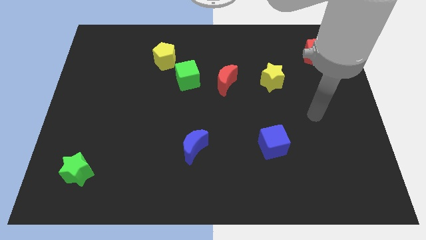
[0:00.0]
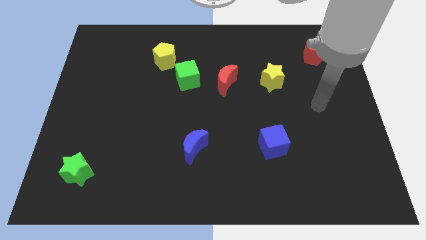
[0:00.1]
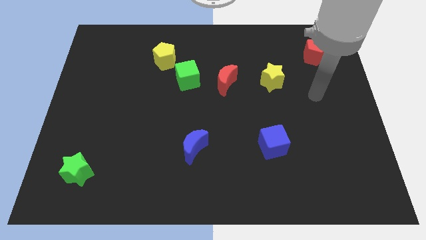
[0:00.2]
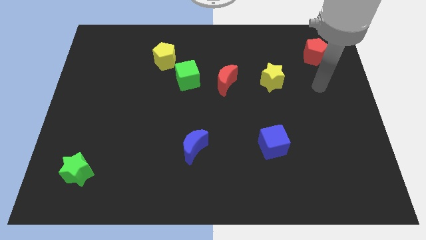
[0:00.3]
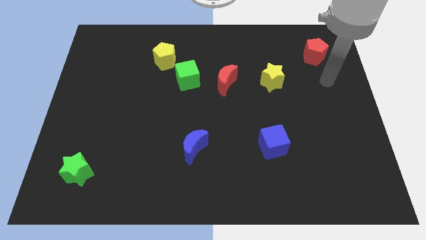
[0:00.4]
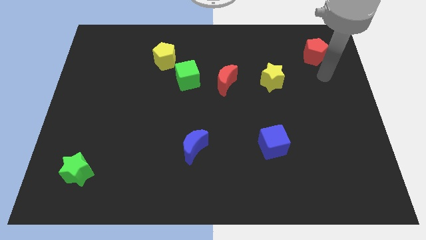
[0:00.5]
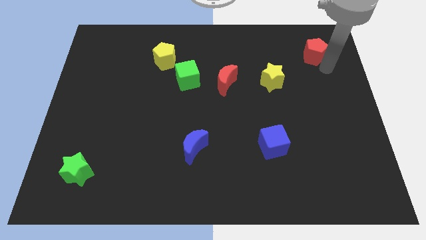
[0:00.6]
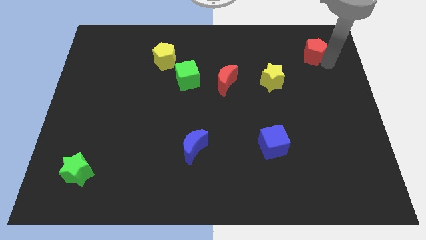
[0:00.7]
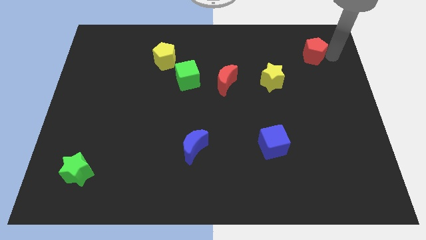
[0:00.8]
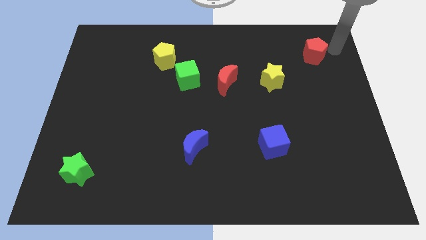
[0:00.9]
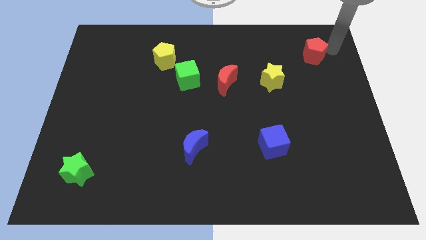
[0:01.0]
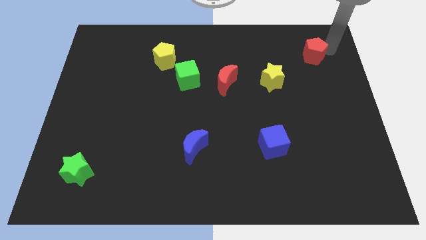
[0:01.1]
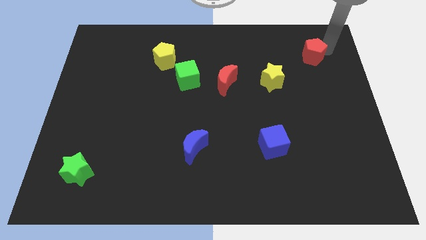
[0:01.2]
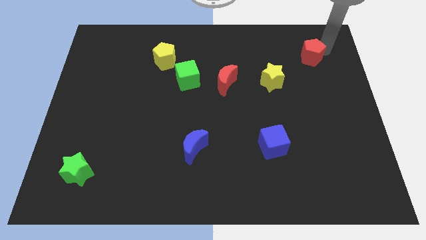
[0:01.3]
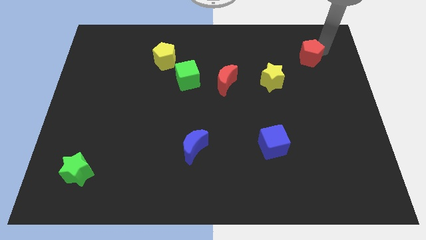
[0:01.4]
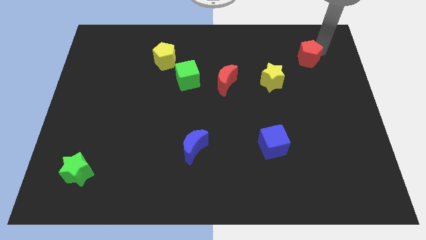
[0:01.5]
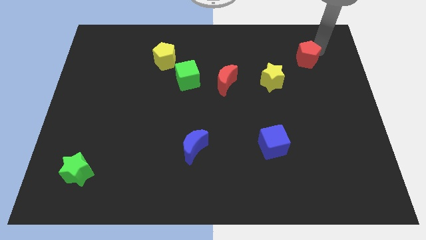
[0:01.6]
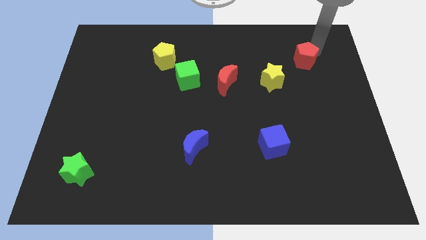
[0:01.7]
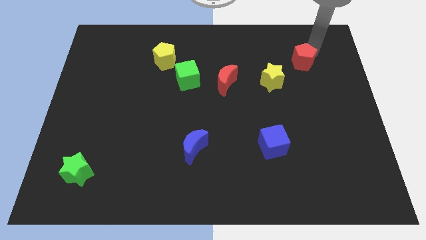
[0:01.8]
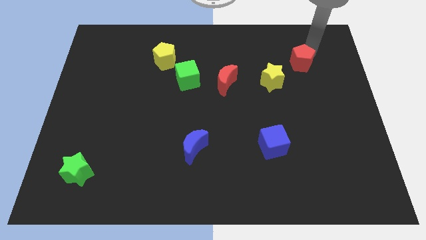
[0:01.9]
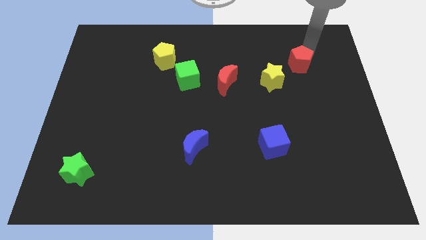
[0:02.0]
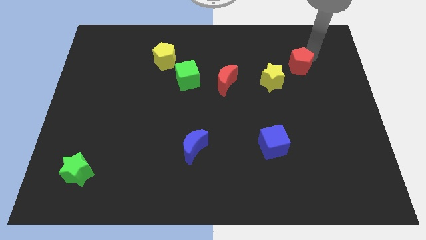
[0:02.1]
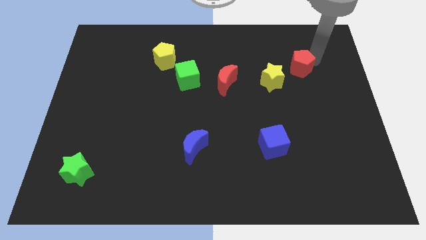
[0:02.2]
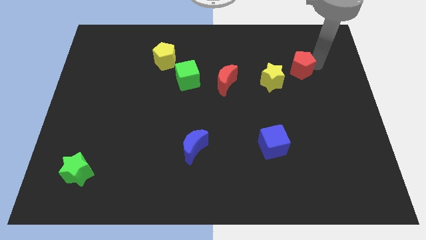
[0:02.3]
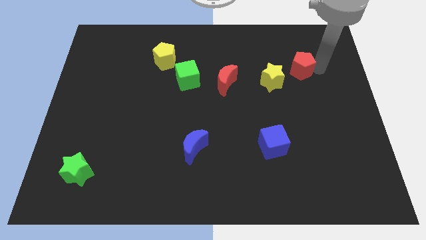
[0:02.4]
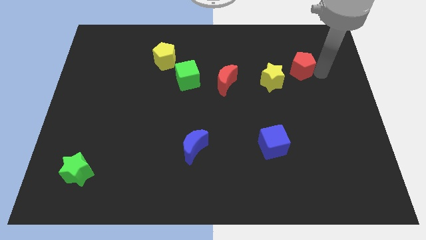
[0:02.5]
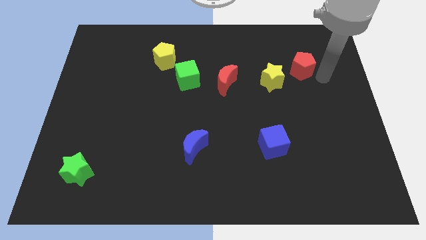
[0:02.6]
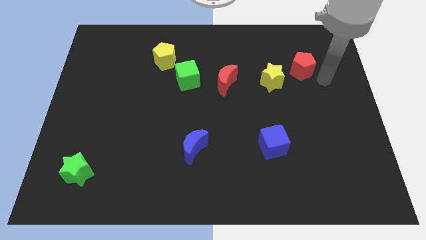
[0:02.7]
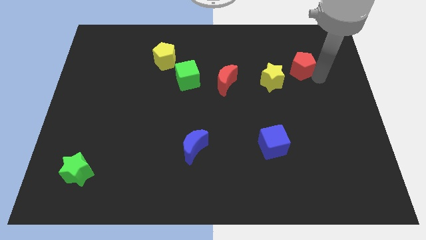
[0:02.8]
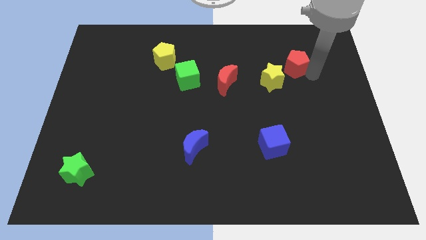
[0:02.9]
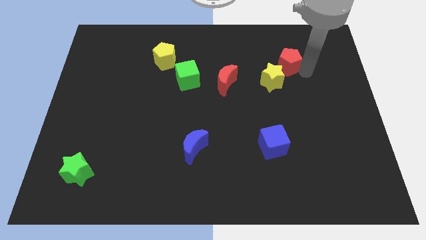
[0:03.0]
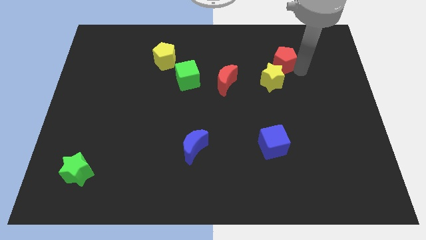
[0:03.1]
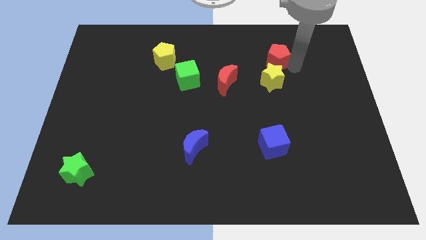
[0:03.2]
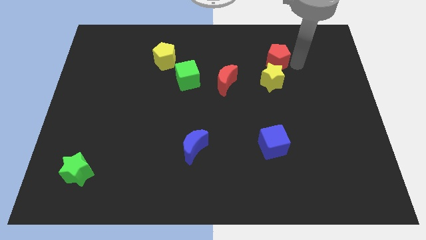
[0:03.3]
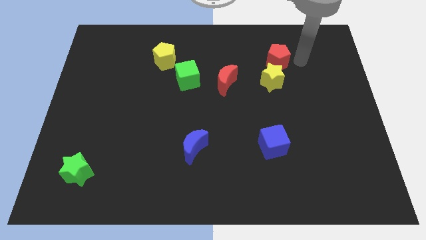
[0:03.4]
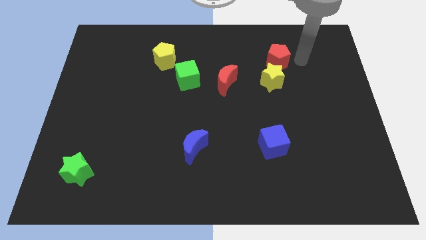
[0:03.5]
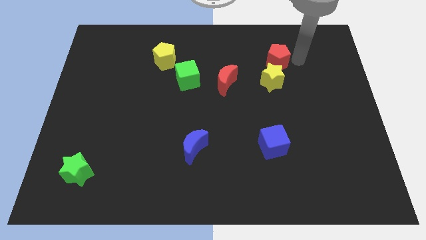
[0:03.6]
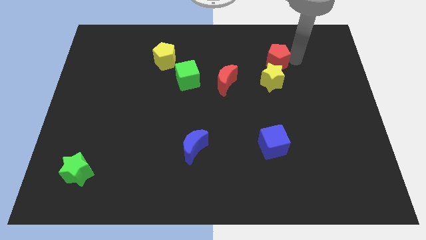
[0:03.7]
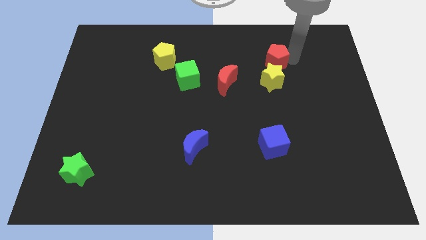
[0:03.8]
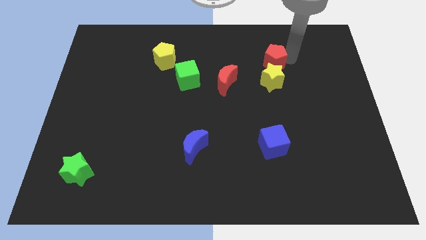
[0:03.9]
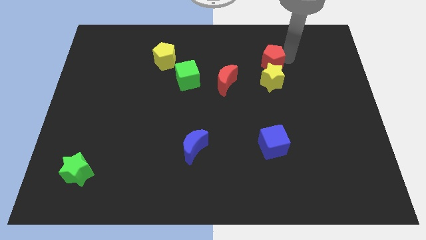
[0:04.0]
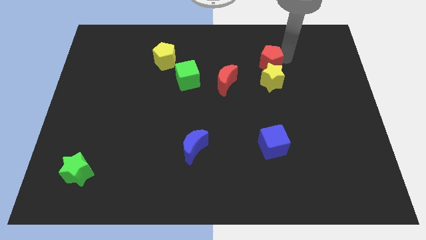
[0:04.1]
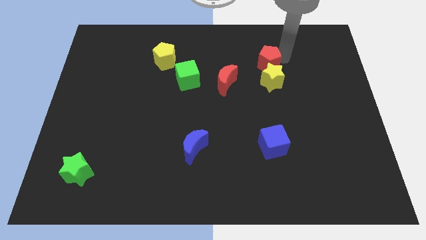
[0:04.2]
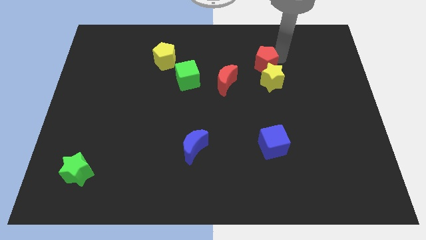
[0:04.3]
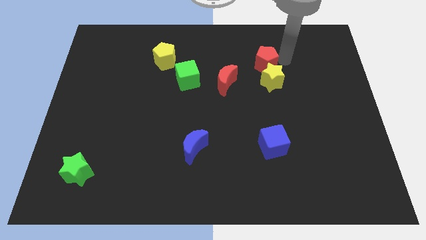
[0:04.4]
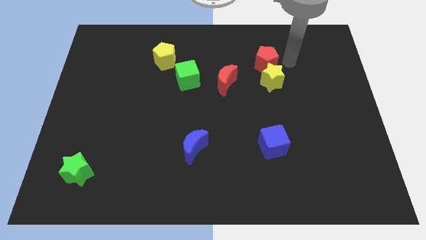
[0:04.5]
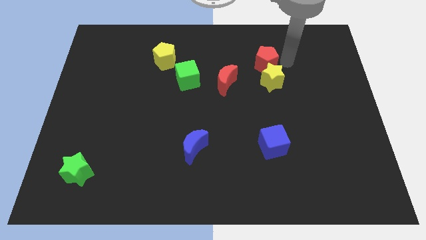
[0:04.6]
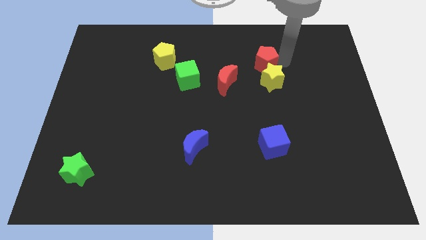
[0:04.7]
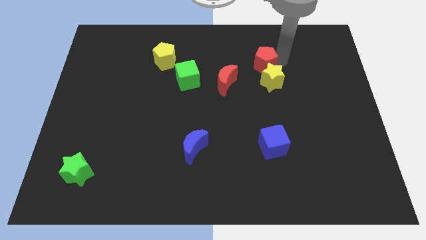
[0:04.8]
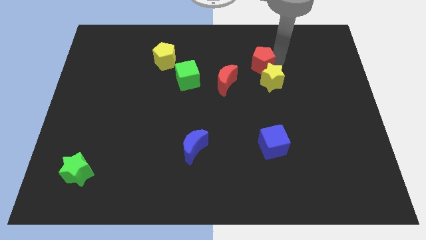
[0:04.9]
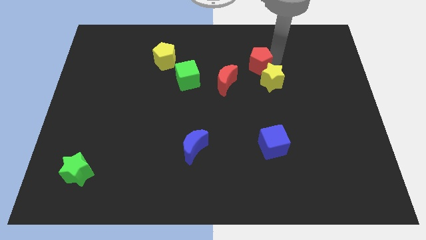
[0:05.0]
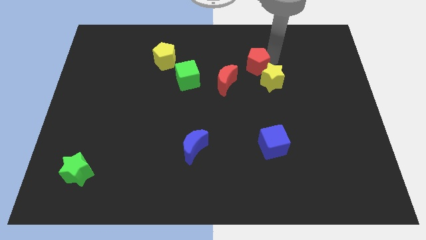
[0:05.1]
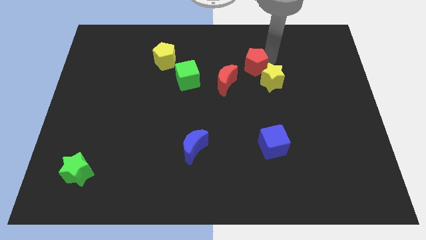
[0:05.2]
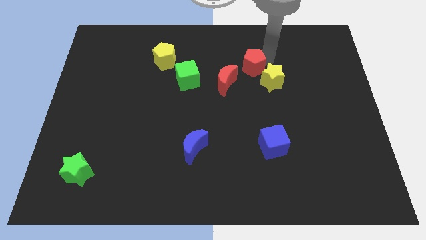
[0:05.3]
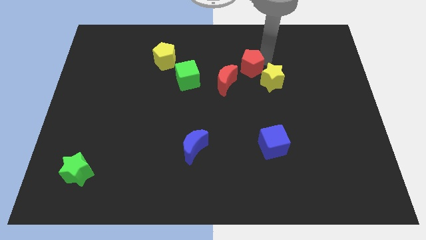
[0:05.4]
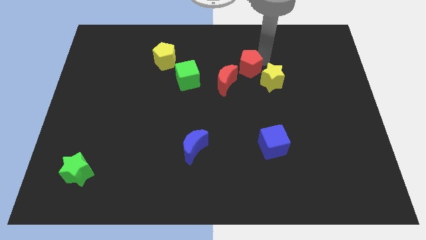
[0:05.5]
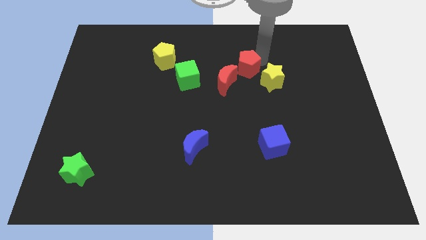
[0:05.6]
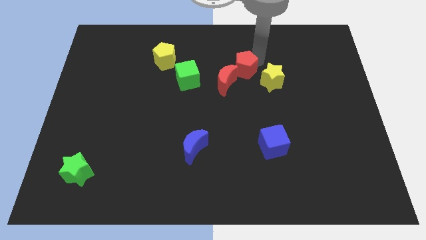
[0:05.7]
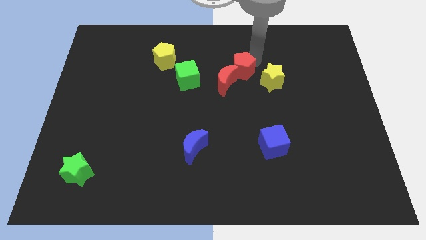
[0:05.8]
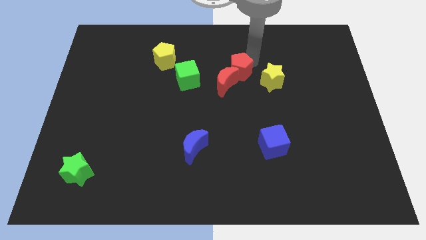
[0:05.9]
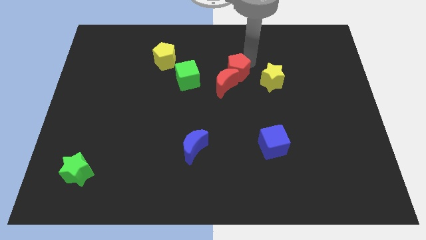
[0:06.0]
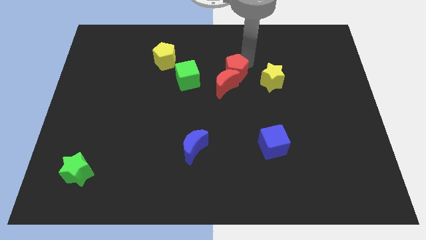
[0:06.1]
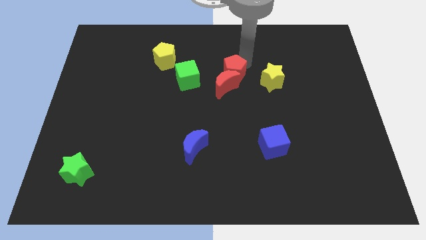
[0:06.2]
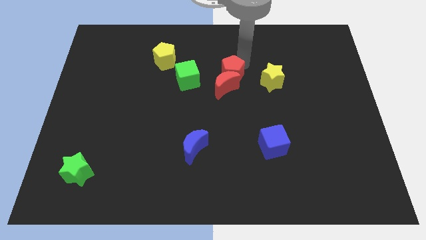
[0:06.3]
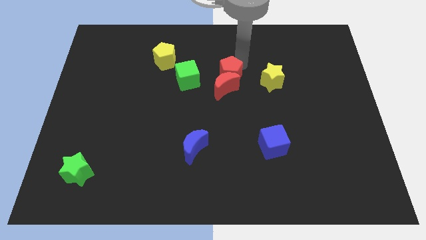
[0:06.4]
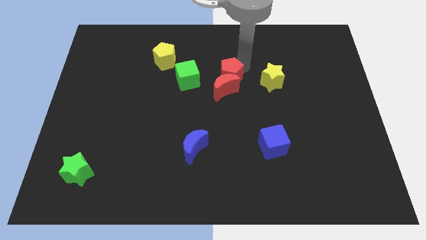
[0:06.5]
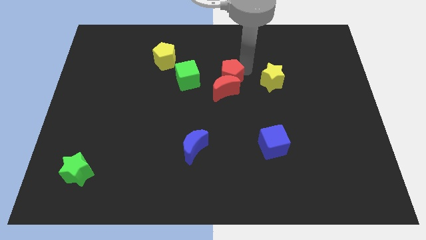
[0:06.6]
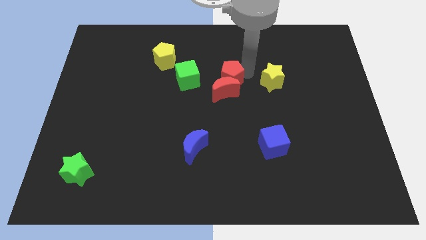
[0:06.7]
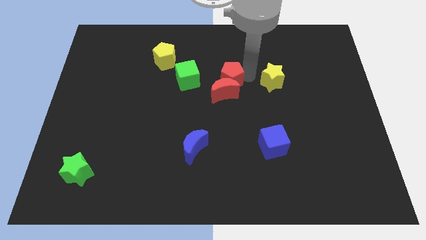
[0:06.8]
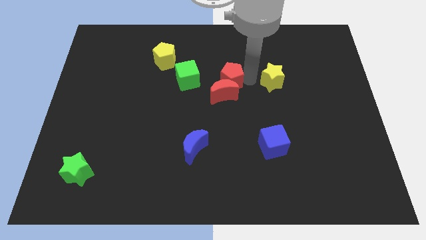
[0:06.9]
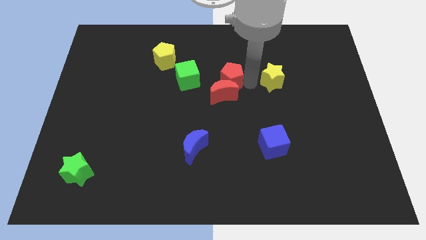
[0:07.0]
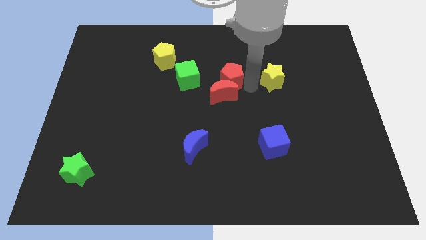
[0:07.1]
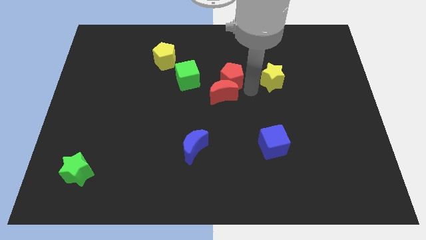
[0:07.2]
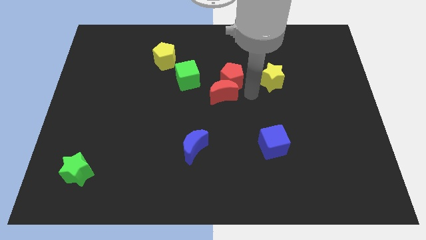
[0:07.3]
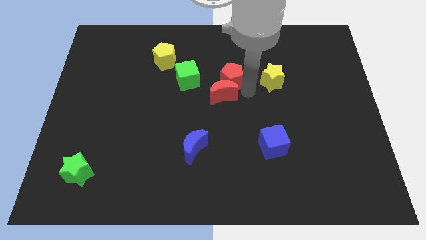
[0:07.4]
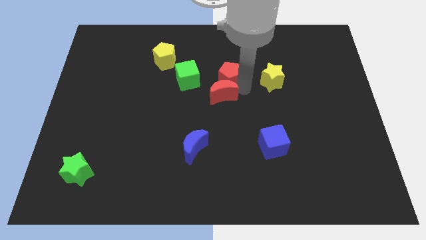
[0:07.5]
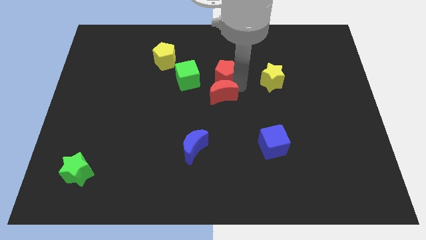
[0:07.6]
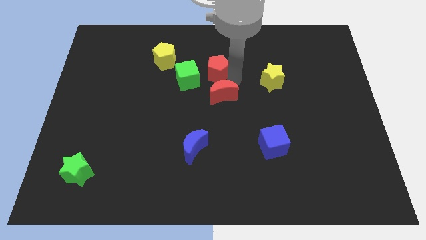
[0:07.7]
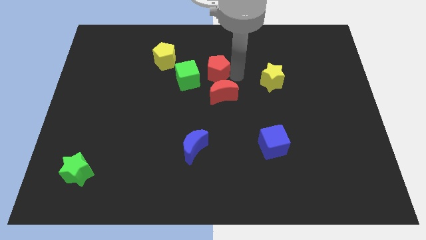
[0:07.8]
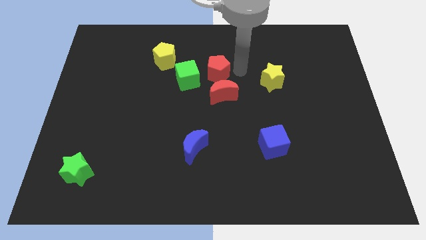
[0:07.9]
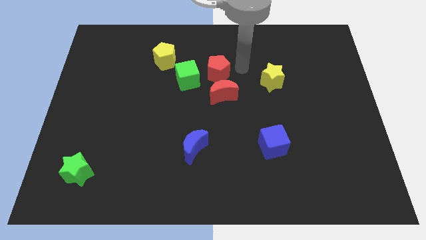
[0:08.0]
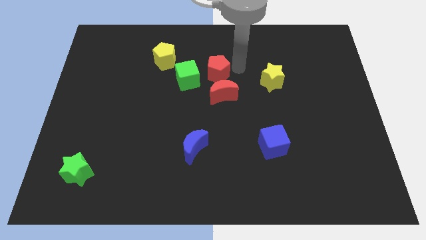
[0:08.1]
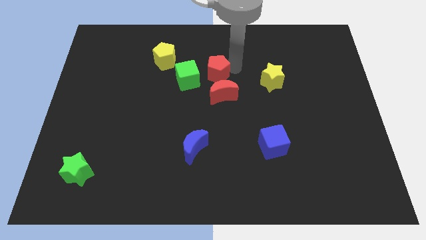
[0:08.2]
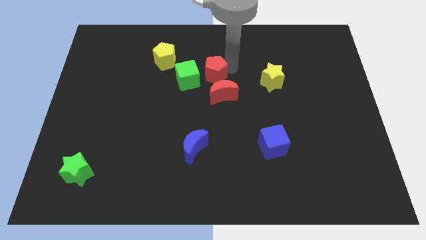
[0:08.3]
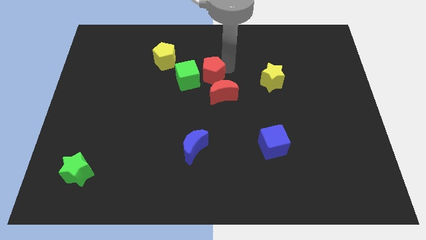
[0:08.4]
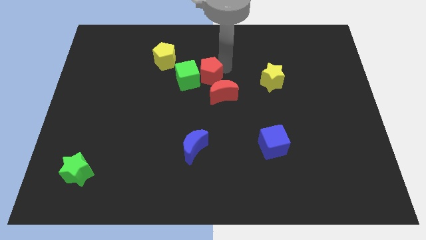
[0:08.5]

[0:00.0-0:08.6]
move the red pentagon next to the green cube
